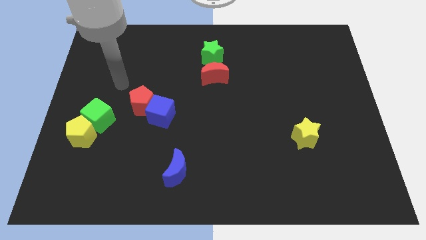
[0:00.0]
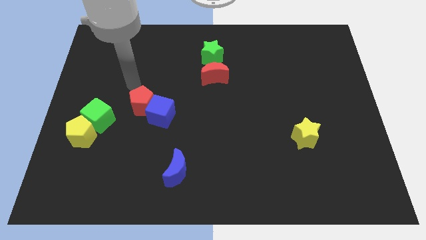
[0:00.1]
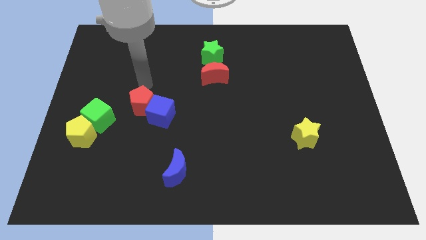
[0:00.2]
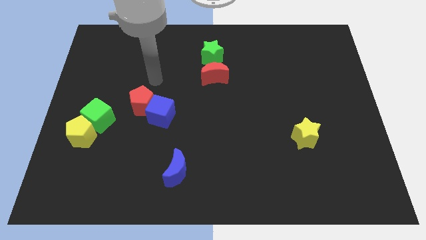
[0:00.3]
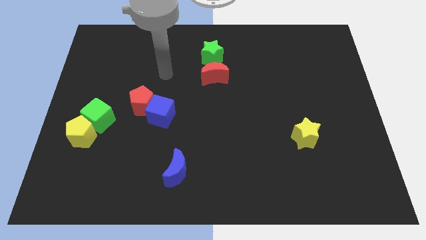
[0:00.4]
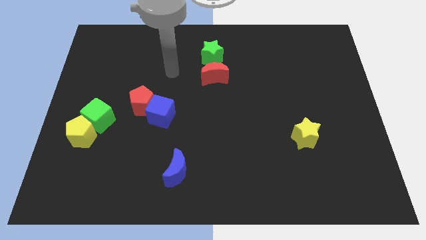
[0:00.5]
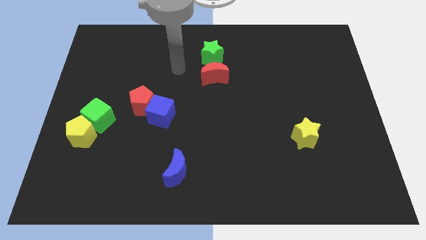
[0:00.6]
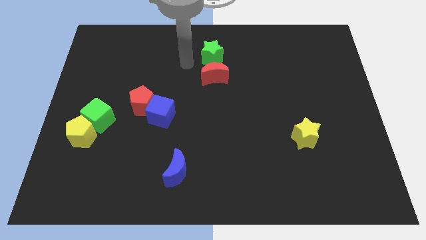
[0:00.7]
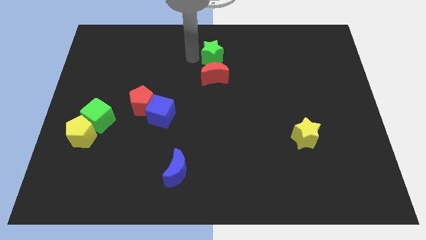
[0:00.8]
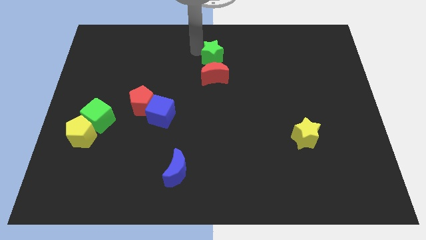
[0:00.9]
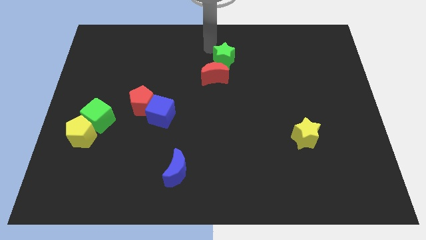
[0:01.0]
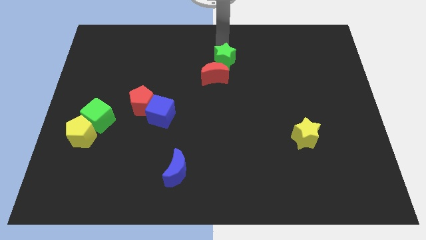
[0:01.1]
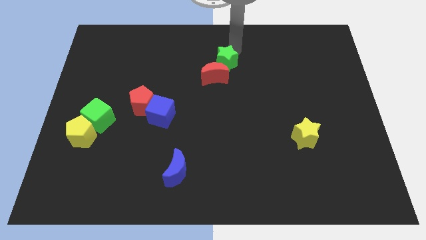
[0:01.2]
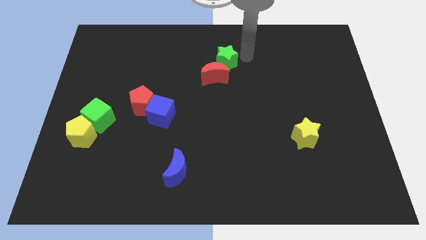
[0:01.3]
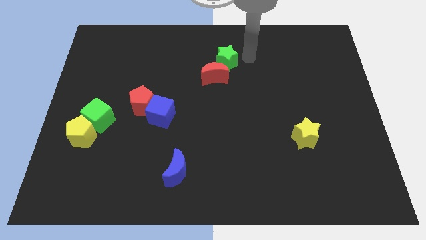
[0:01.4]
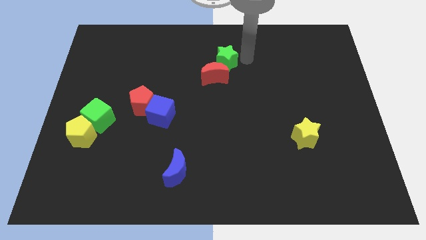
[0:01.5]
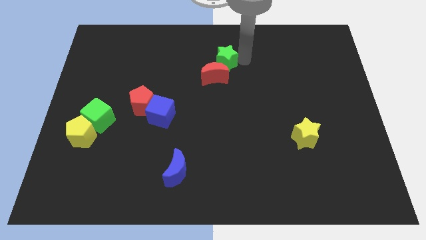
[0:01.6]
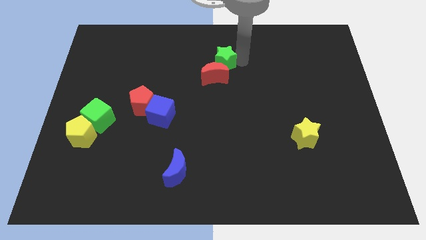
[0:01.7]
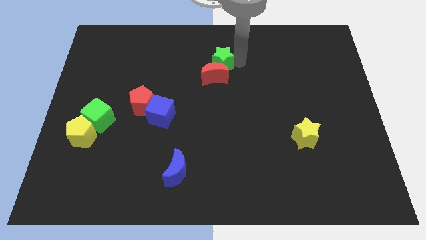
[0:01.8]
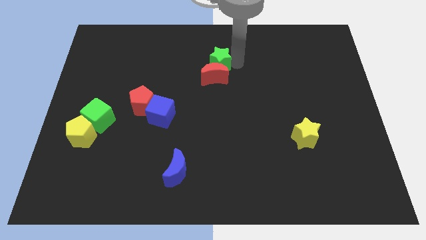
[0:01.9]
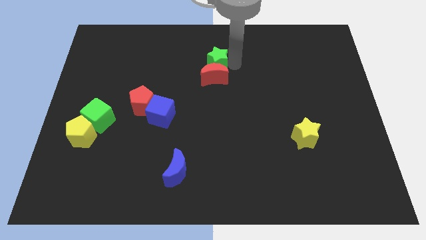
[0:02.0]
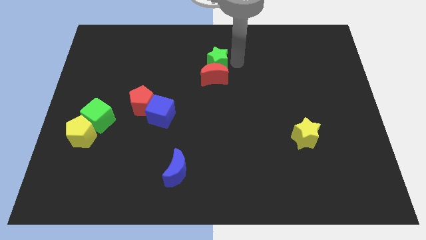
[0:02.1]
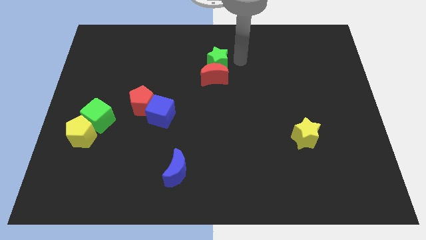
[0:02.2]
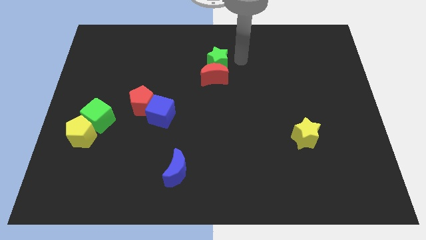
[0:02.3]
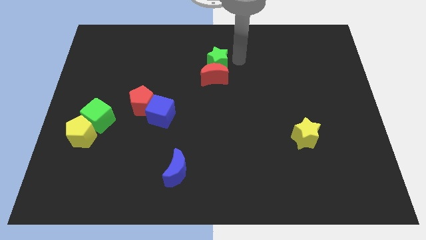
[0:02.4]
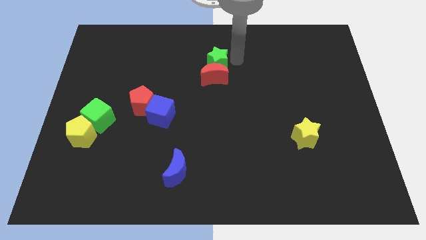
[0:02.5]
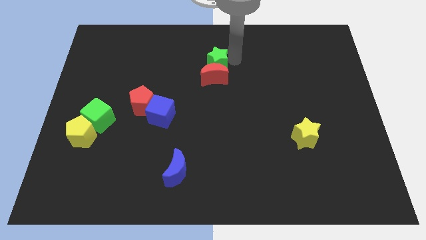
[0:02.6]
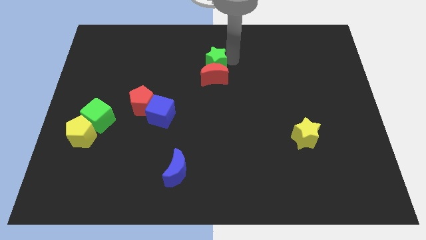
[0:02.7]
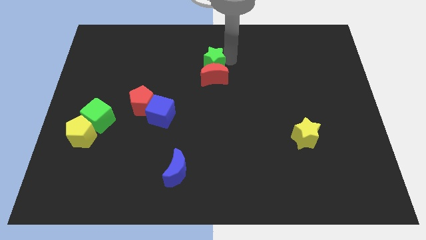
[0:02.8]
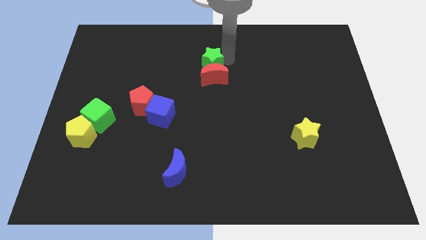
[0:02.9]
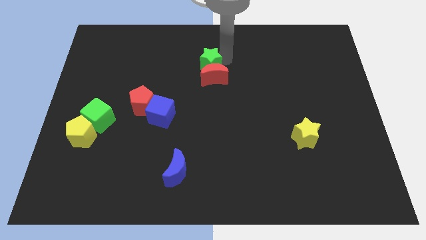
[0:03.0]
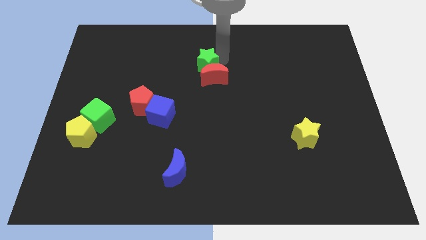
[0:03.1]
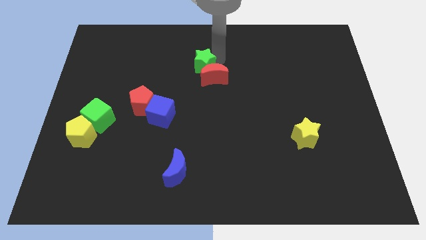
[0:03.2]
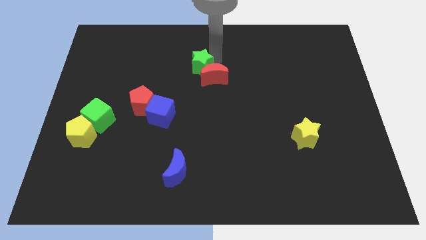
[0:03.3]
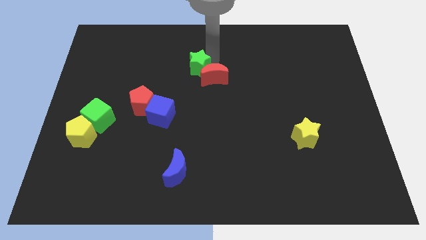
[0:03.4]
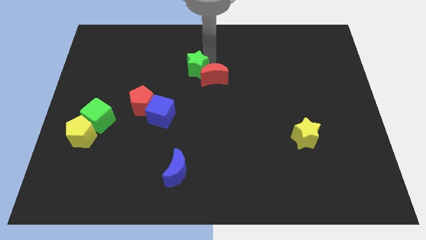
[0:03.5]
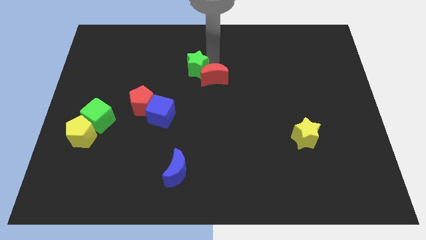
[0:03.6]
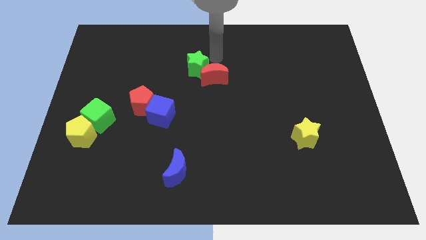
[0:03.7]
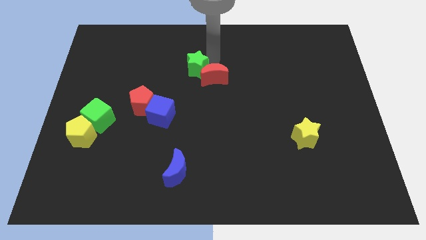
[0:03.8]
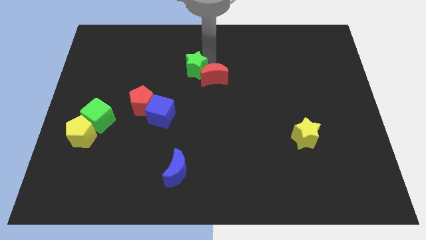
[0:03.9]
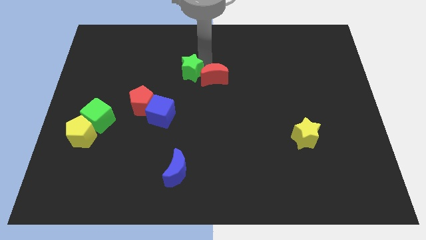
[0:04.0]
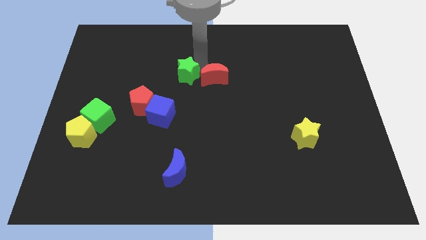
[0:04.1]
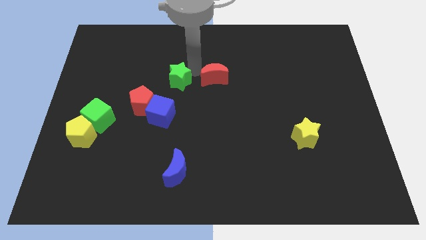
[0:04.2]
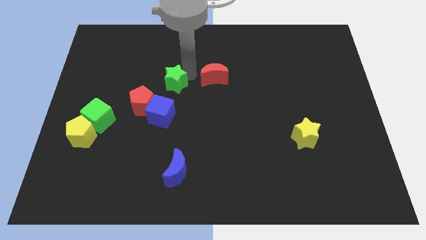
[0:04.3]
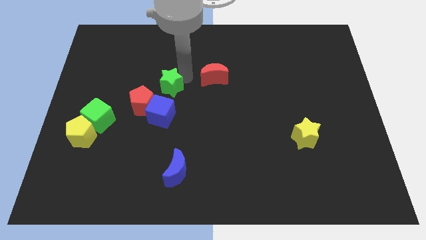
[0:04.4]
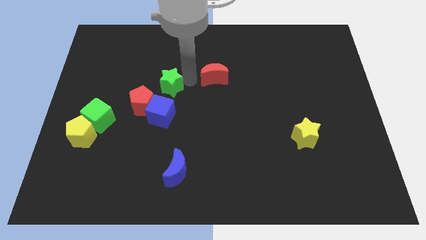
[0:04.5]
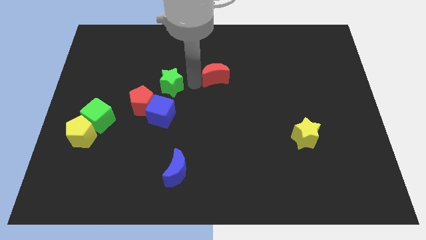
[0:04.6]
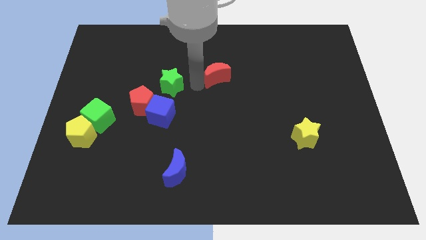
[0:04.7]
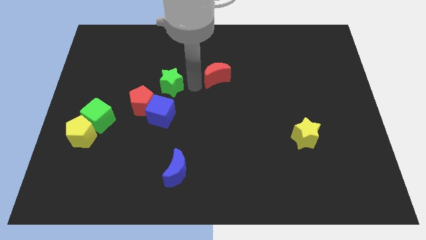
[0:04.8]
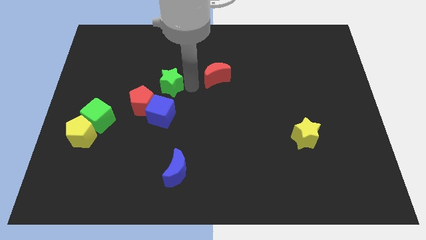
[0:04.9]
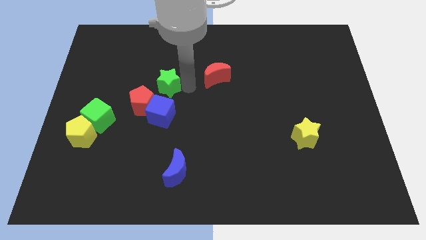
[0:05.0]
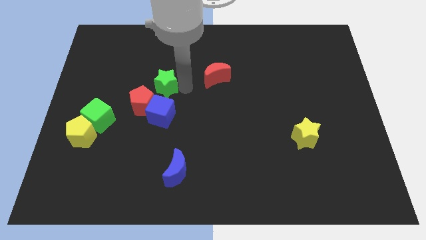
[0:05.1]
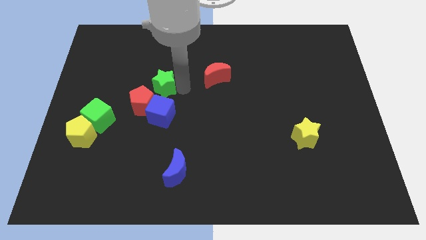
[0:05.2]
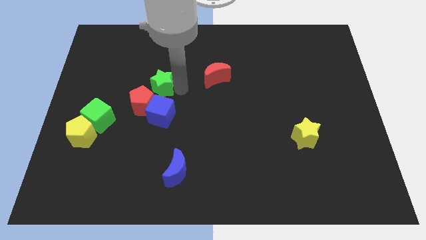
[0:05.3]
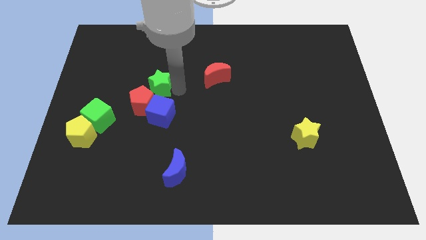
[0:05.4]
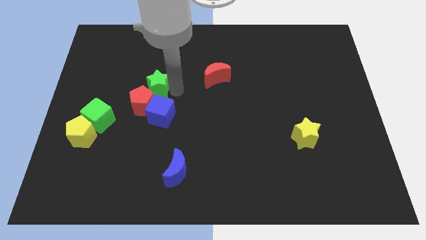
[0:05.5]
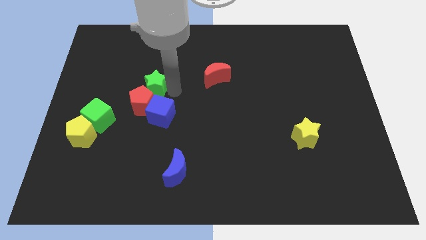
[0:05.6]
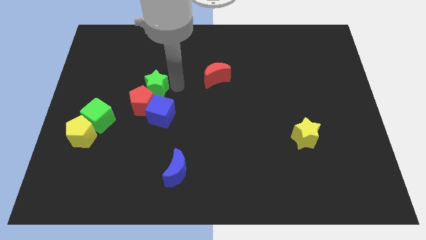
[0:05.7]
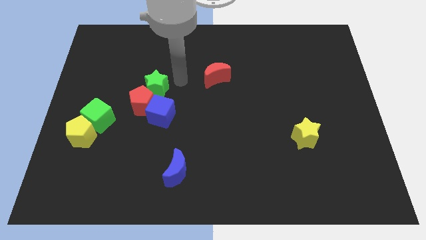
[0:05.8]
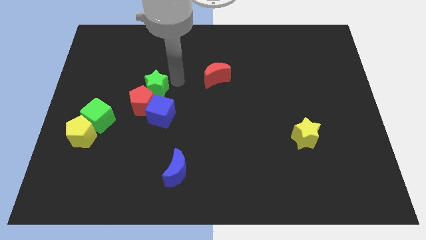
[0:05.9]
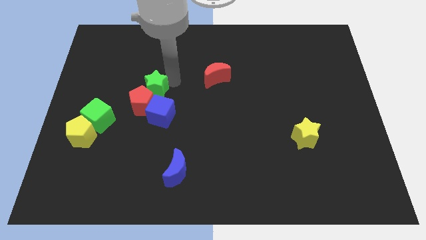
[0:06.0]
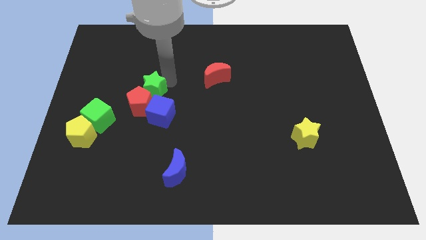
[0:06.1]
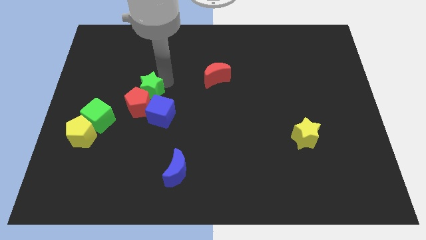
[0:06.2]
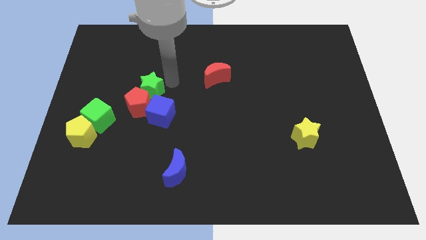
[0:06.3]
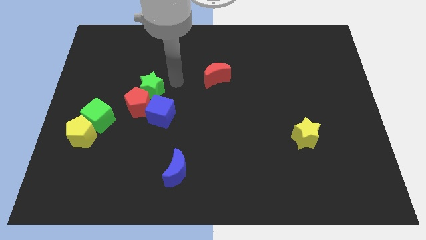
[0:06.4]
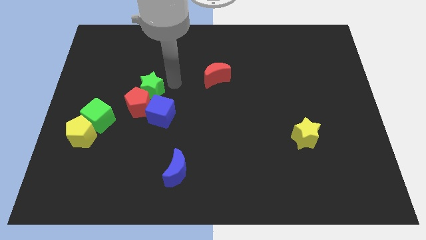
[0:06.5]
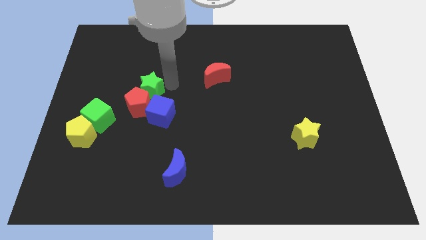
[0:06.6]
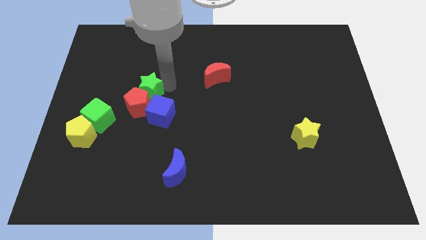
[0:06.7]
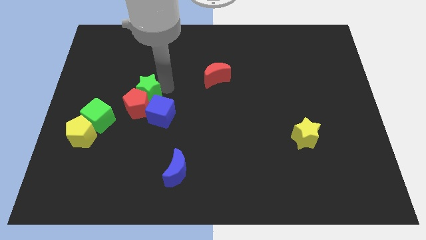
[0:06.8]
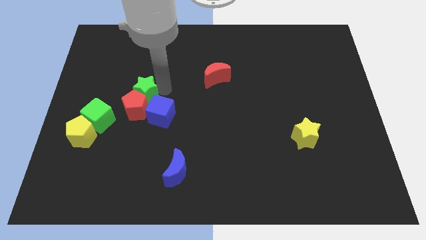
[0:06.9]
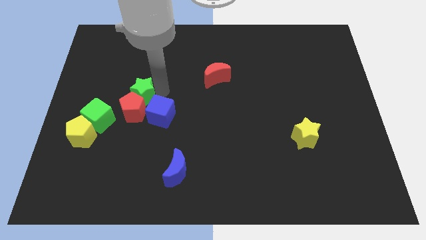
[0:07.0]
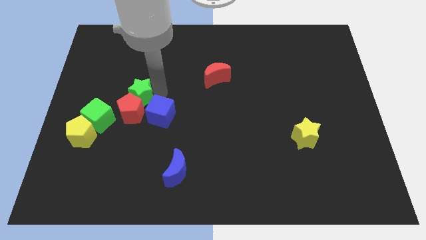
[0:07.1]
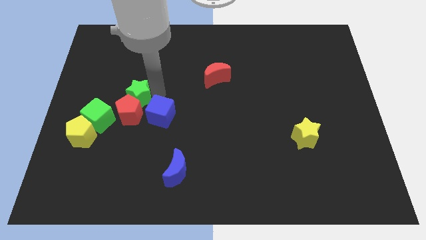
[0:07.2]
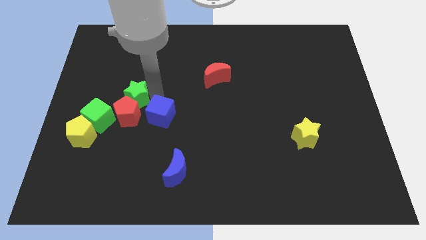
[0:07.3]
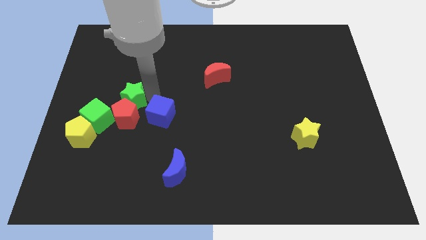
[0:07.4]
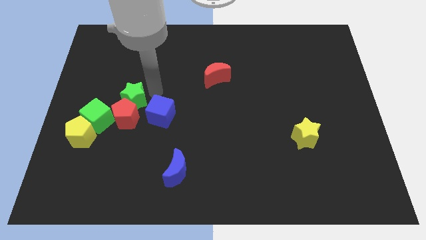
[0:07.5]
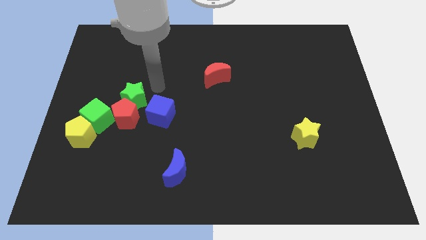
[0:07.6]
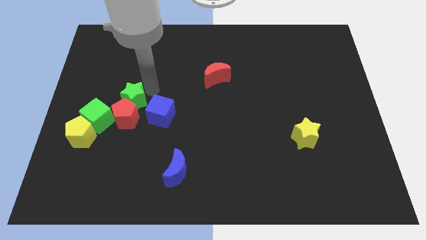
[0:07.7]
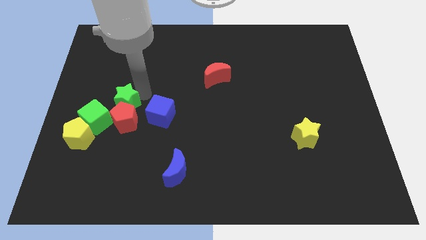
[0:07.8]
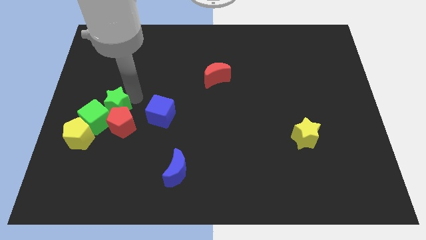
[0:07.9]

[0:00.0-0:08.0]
put the green star next to the green cube
